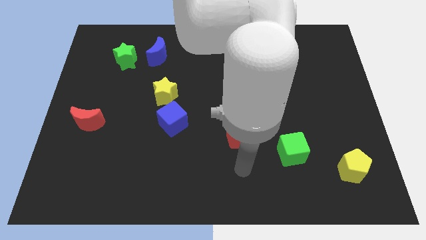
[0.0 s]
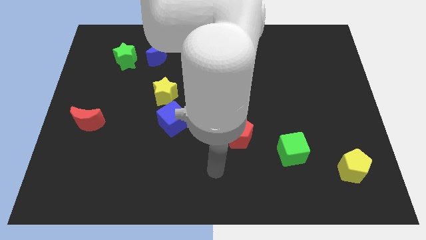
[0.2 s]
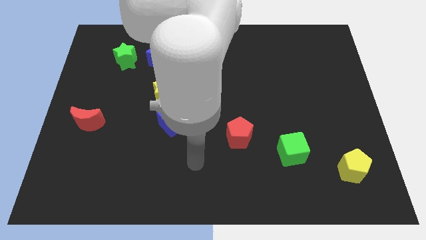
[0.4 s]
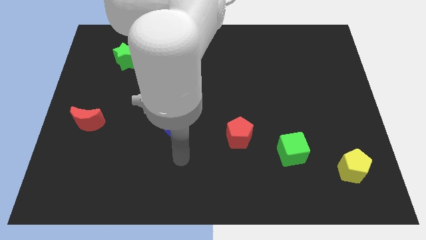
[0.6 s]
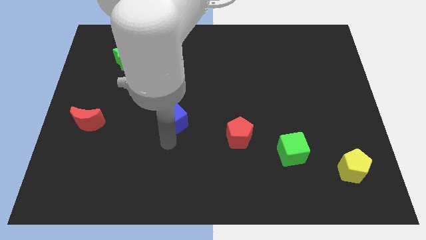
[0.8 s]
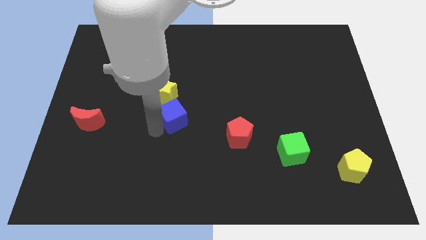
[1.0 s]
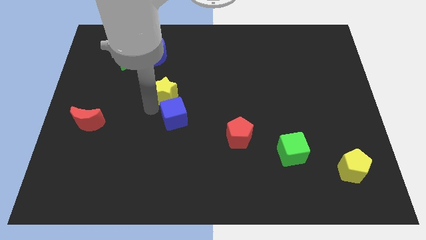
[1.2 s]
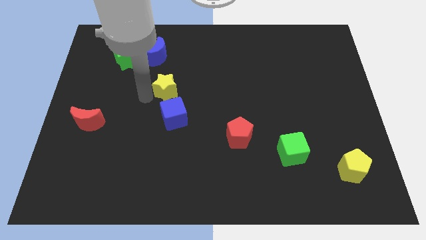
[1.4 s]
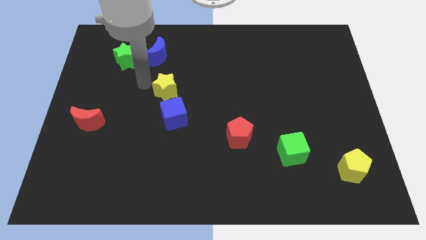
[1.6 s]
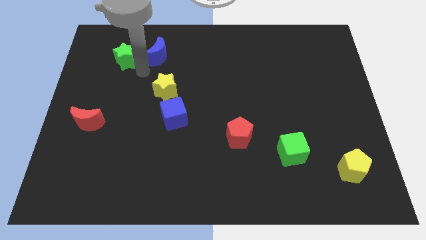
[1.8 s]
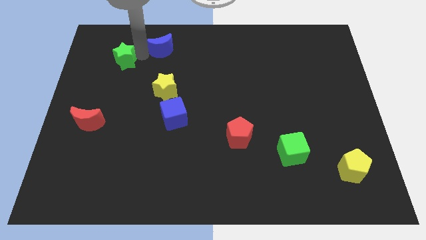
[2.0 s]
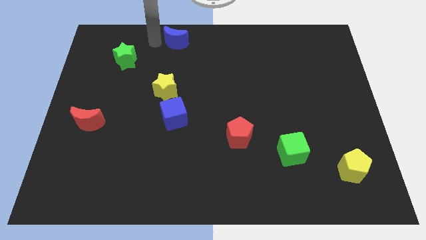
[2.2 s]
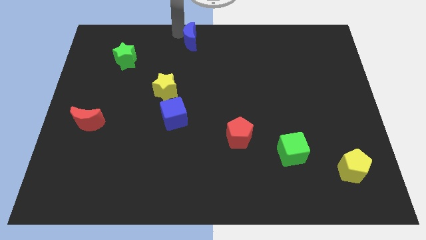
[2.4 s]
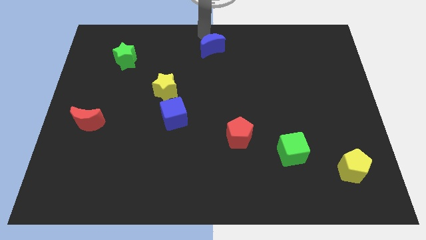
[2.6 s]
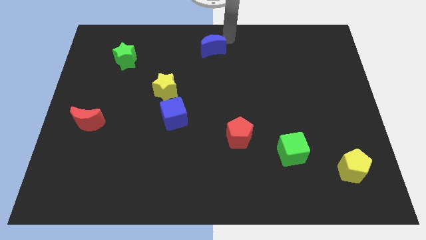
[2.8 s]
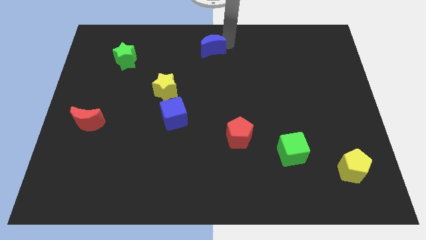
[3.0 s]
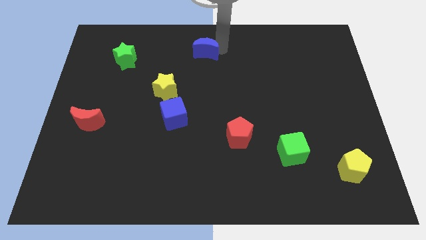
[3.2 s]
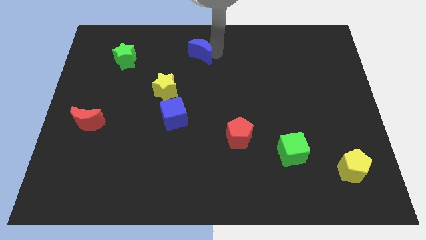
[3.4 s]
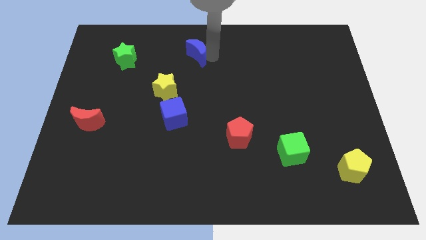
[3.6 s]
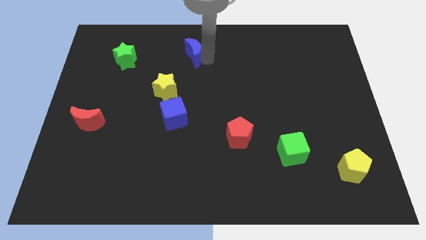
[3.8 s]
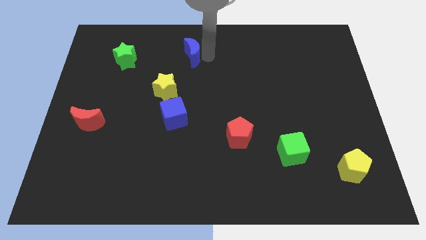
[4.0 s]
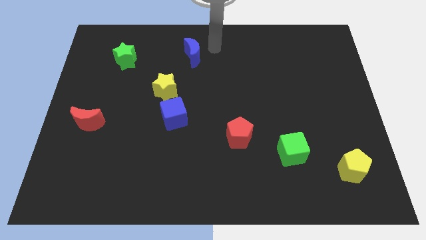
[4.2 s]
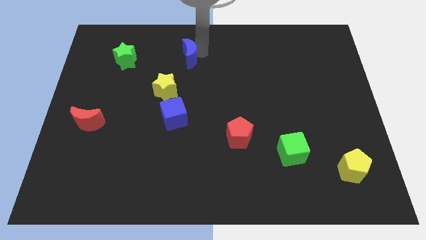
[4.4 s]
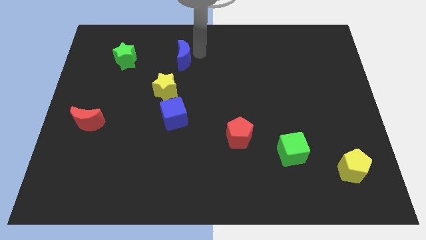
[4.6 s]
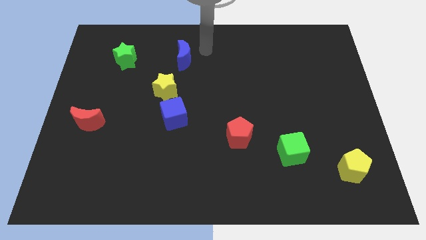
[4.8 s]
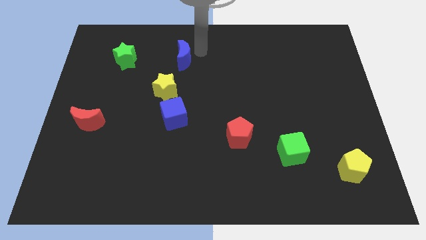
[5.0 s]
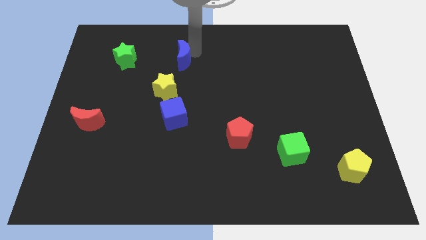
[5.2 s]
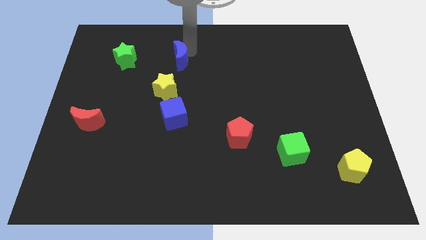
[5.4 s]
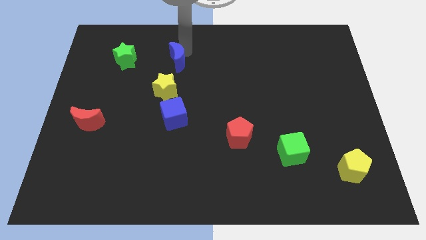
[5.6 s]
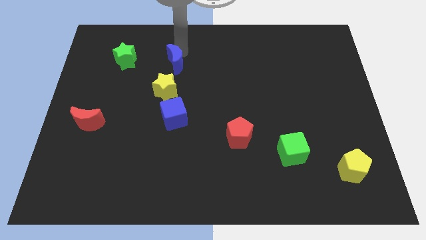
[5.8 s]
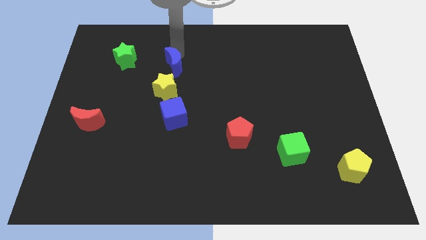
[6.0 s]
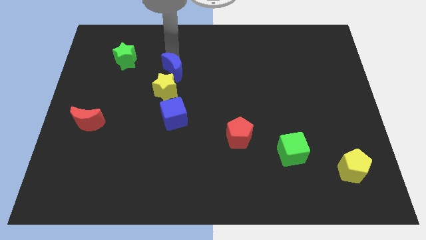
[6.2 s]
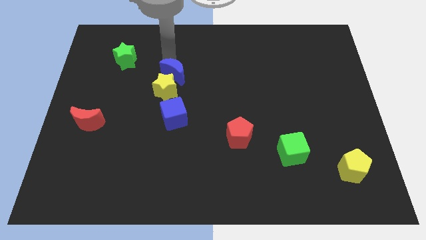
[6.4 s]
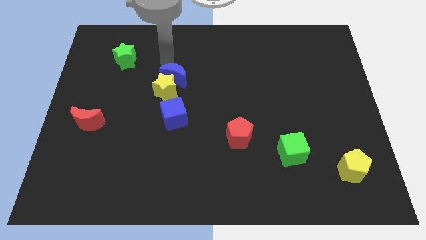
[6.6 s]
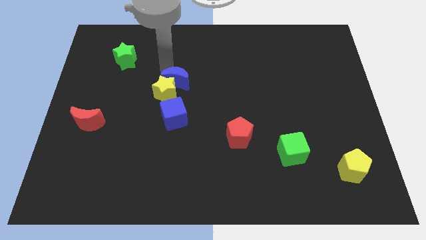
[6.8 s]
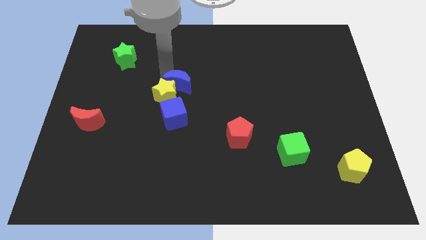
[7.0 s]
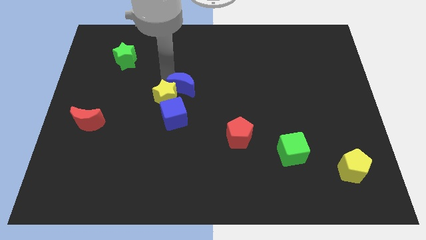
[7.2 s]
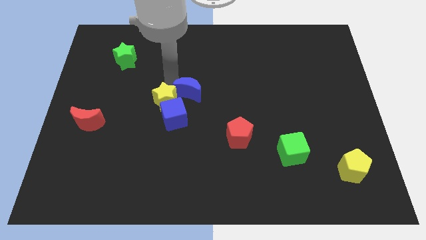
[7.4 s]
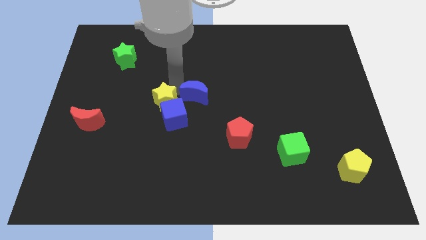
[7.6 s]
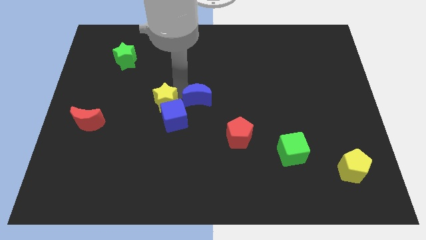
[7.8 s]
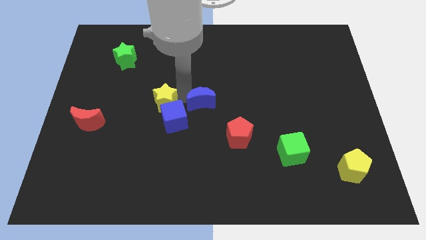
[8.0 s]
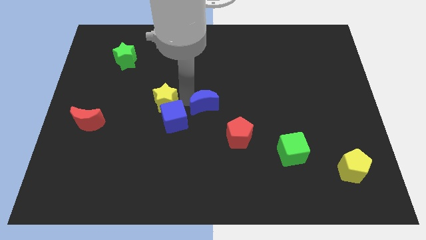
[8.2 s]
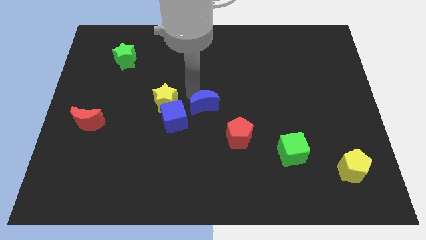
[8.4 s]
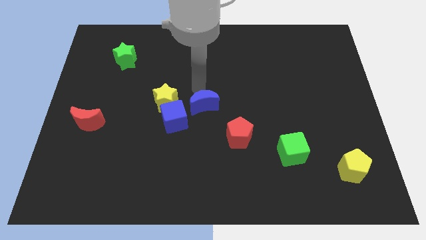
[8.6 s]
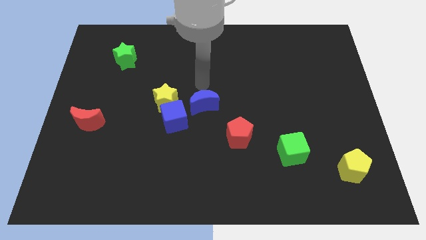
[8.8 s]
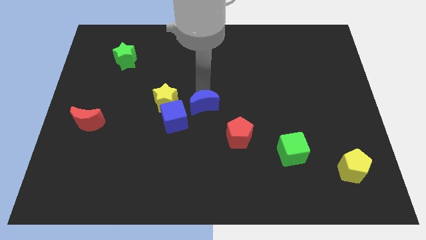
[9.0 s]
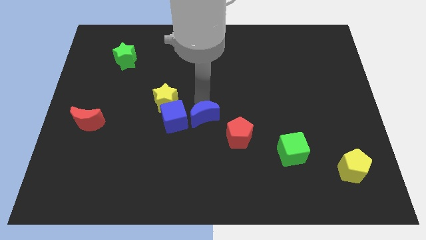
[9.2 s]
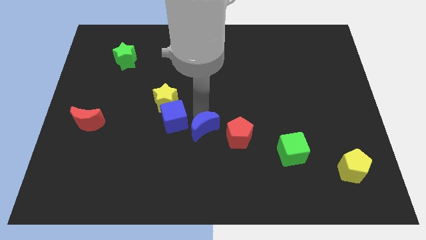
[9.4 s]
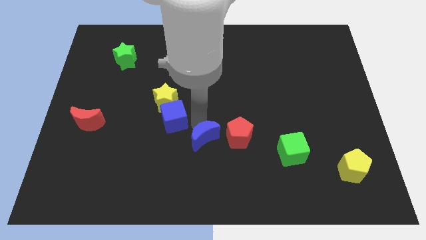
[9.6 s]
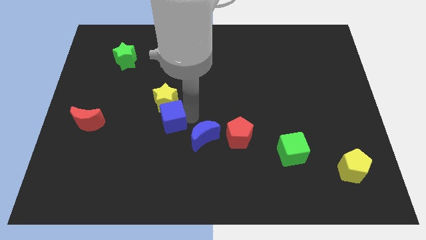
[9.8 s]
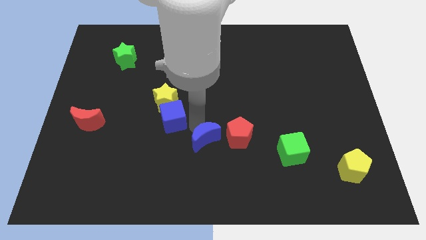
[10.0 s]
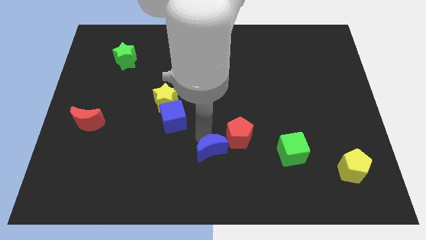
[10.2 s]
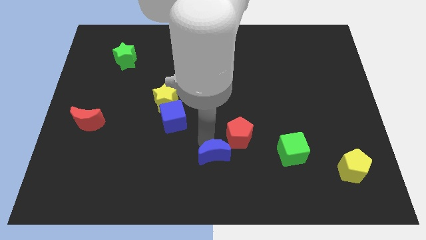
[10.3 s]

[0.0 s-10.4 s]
push the blue moon to the bottom

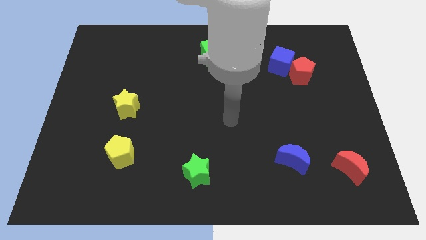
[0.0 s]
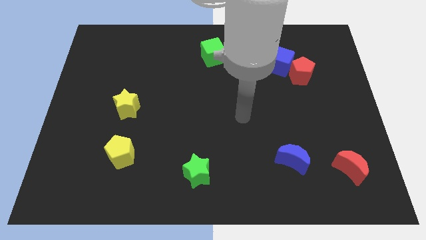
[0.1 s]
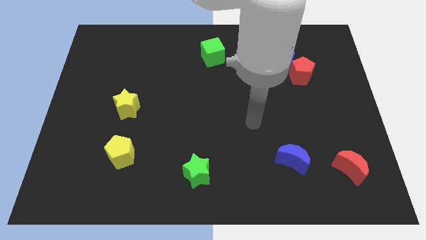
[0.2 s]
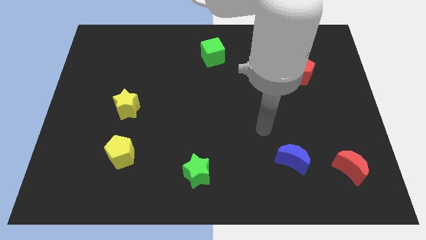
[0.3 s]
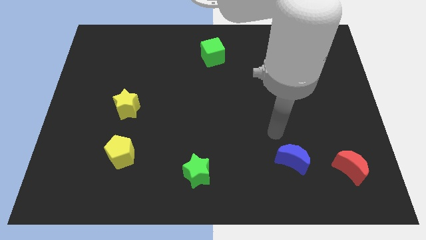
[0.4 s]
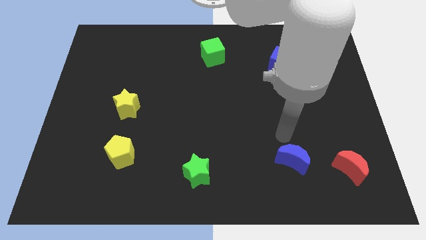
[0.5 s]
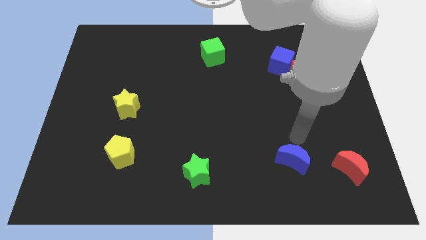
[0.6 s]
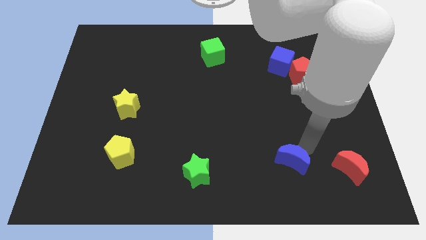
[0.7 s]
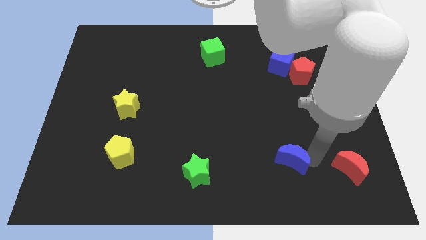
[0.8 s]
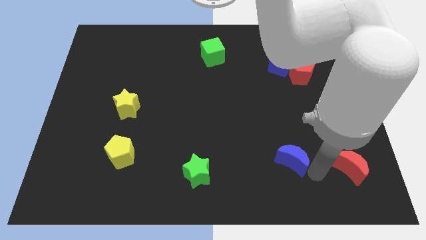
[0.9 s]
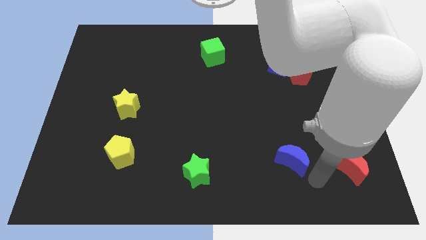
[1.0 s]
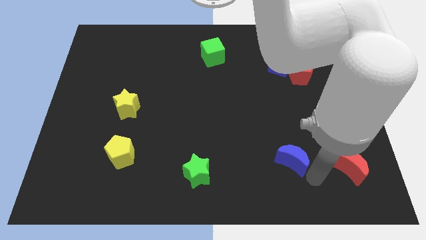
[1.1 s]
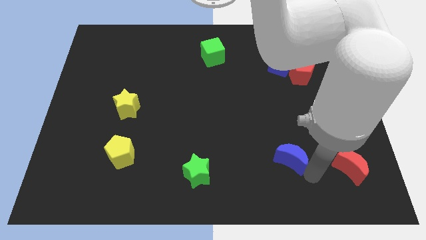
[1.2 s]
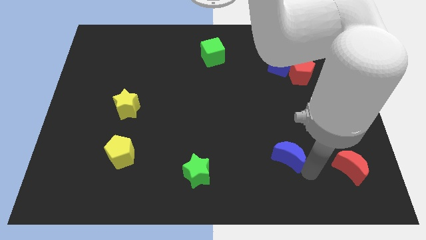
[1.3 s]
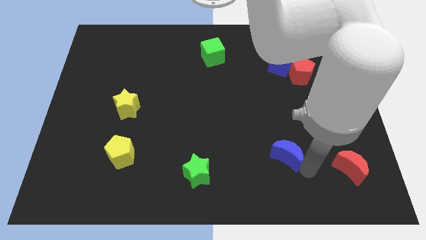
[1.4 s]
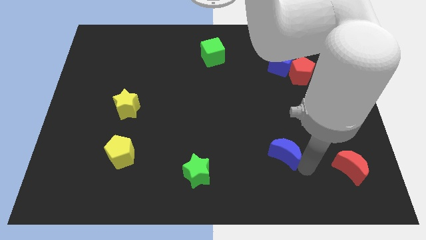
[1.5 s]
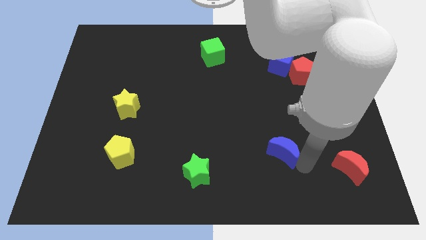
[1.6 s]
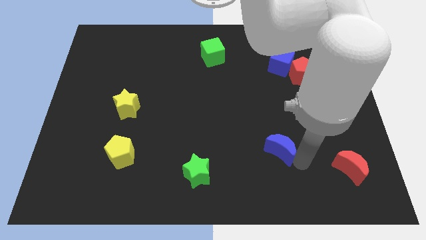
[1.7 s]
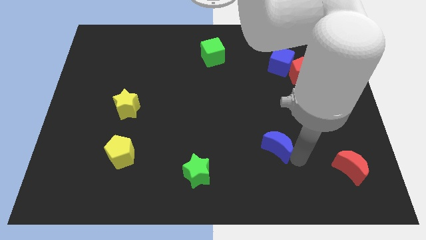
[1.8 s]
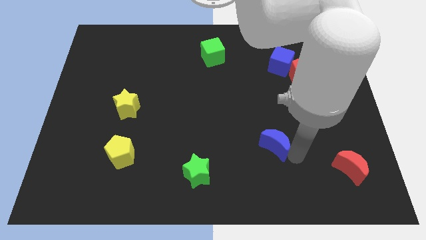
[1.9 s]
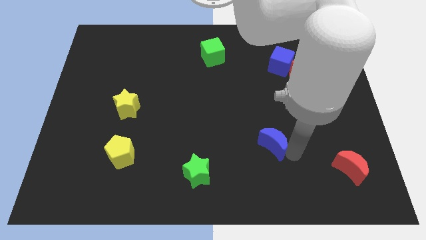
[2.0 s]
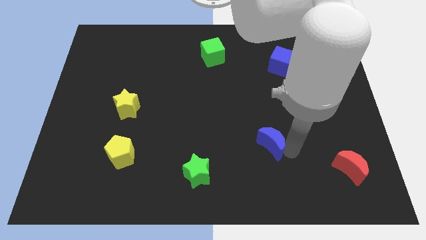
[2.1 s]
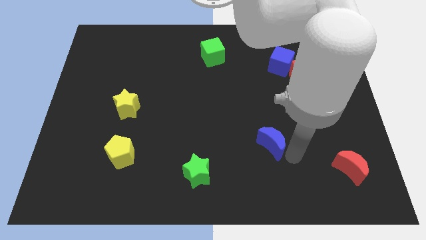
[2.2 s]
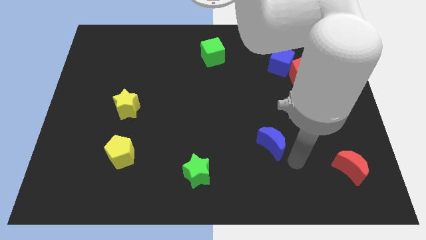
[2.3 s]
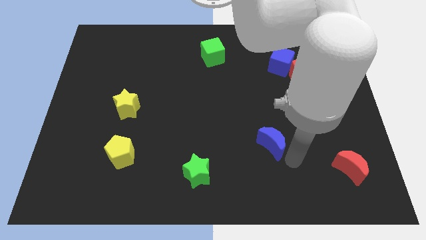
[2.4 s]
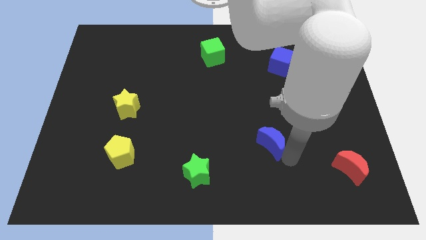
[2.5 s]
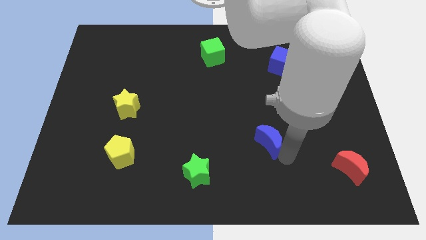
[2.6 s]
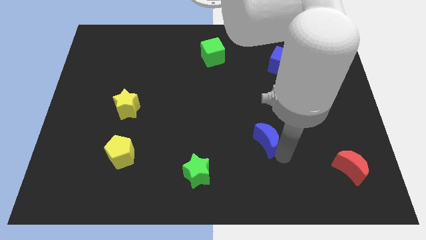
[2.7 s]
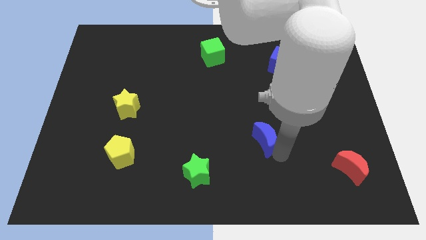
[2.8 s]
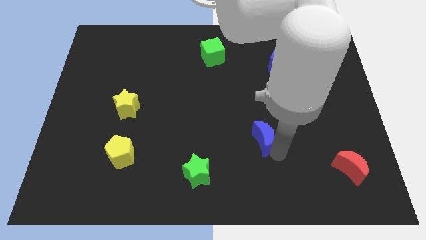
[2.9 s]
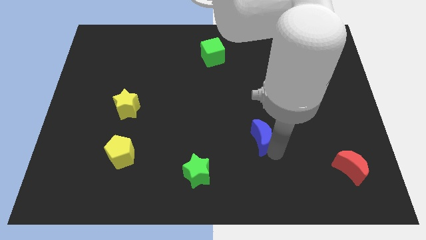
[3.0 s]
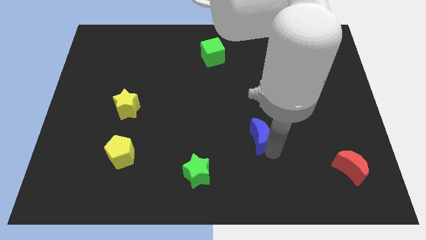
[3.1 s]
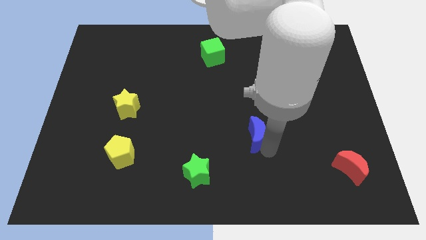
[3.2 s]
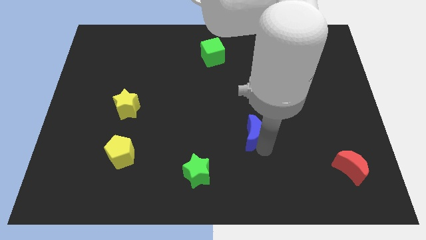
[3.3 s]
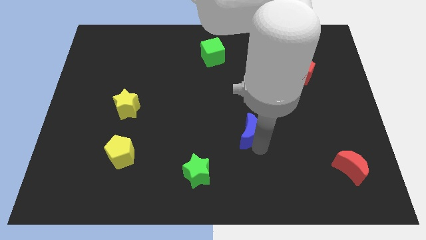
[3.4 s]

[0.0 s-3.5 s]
move the blue moon to the center of the board
